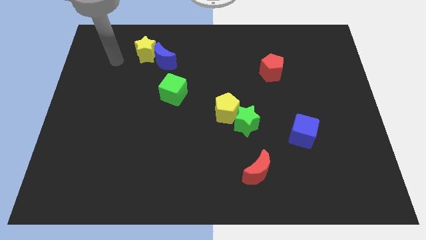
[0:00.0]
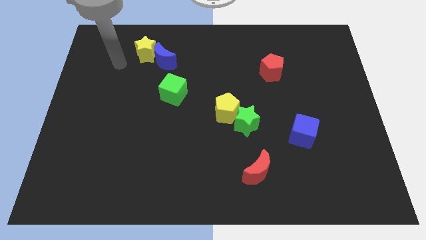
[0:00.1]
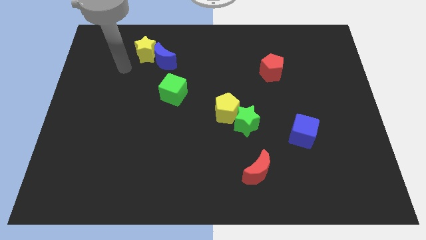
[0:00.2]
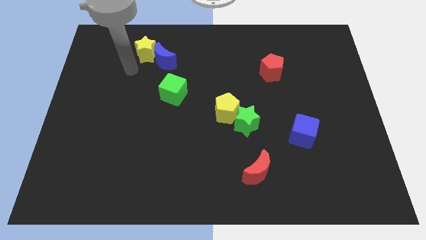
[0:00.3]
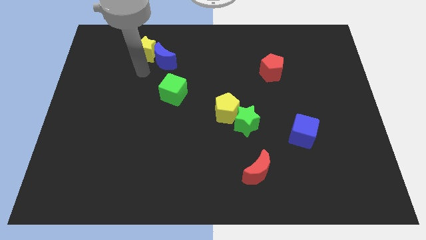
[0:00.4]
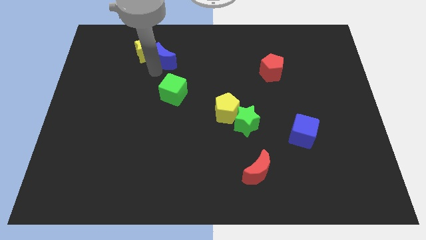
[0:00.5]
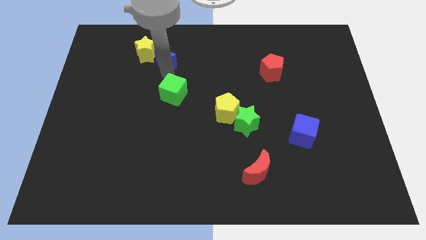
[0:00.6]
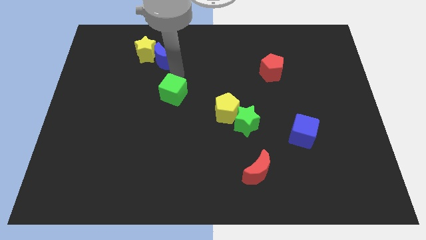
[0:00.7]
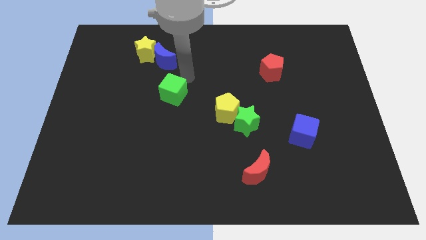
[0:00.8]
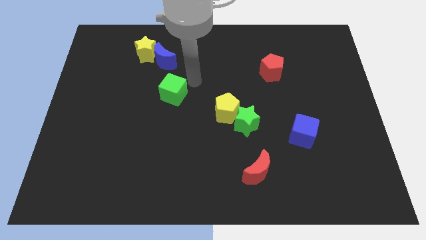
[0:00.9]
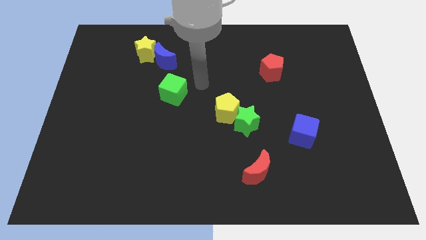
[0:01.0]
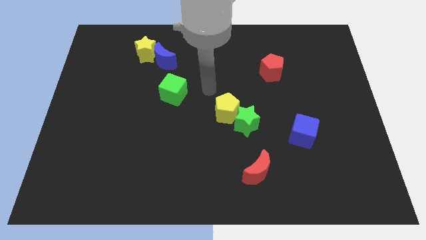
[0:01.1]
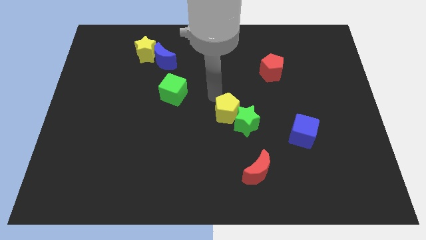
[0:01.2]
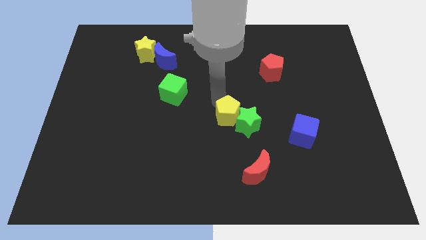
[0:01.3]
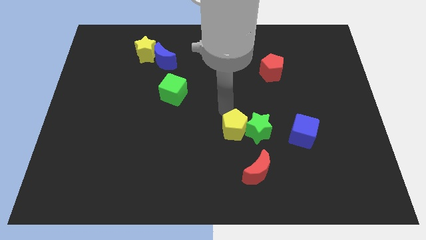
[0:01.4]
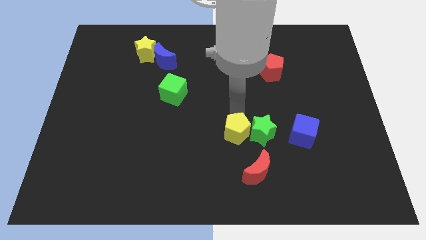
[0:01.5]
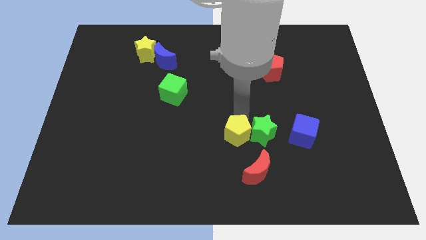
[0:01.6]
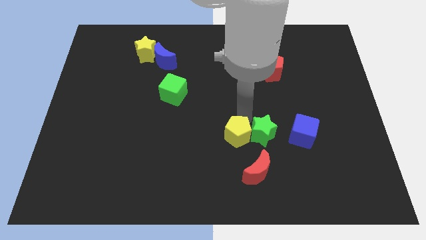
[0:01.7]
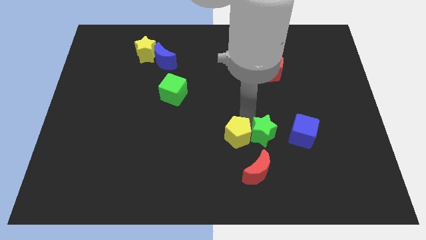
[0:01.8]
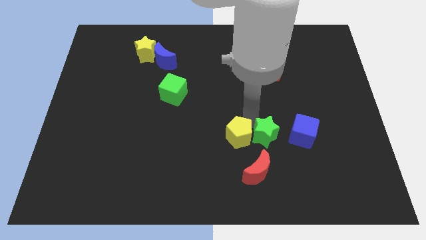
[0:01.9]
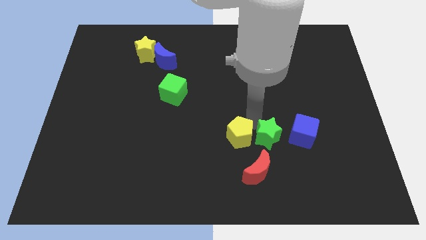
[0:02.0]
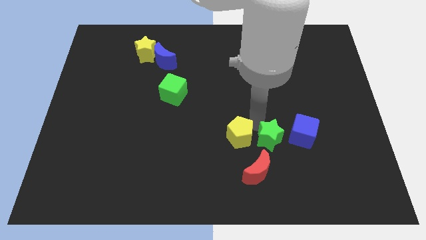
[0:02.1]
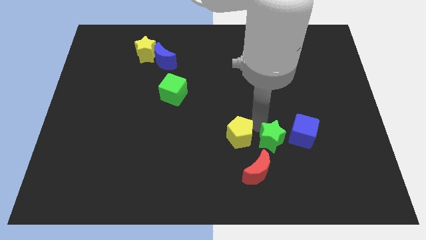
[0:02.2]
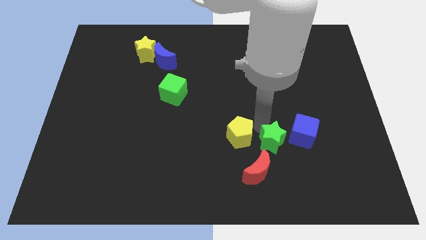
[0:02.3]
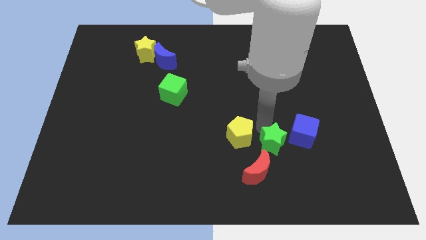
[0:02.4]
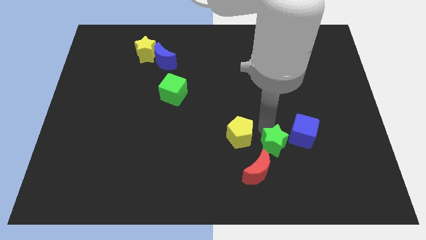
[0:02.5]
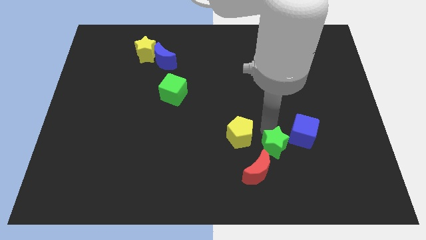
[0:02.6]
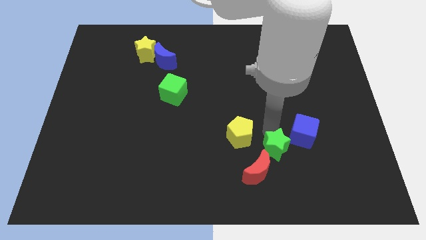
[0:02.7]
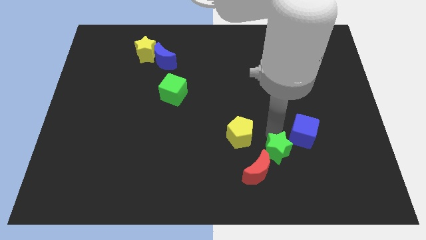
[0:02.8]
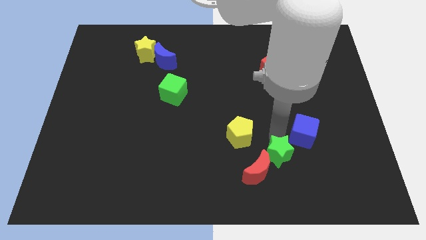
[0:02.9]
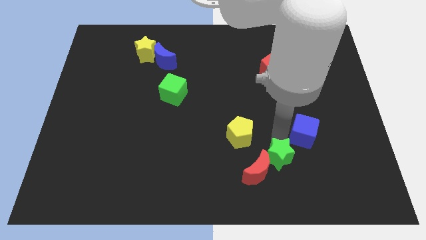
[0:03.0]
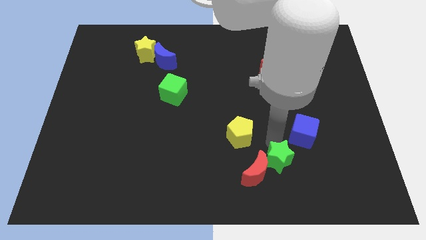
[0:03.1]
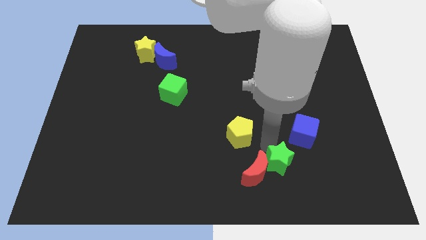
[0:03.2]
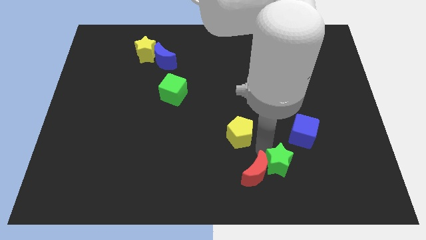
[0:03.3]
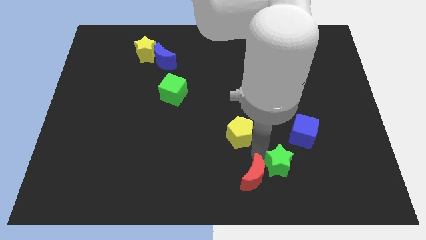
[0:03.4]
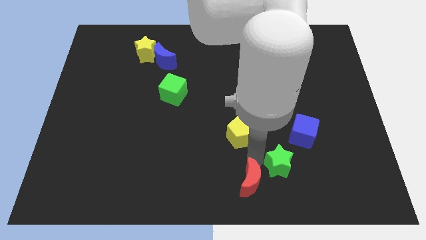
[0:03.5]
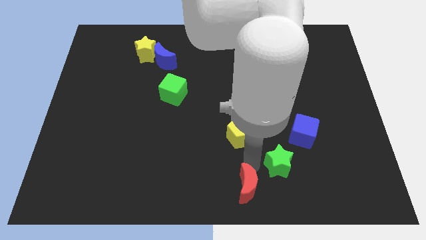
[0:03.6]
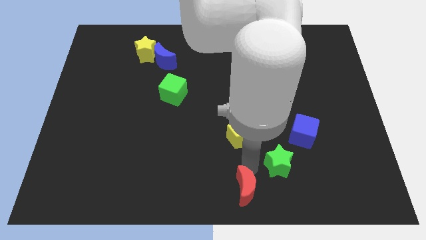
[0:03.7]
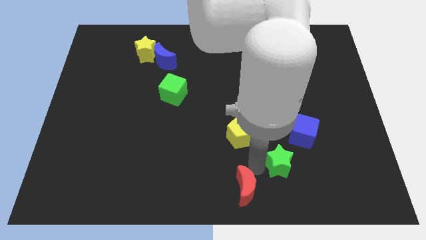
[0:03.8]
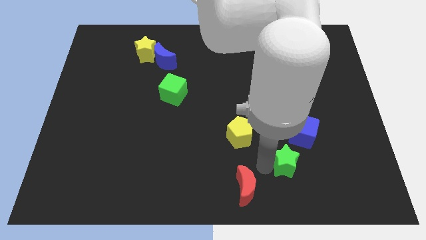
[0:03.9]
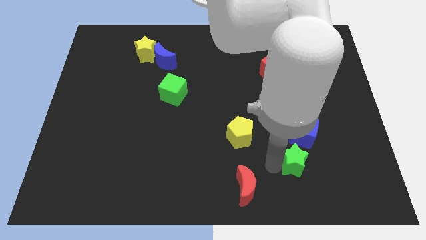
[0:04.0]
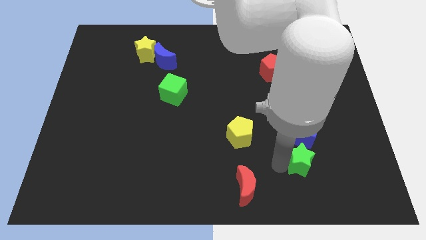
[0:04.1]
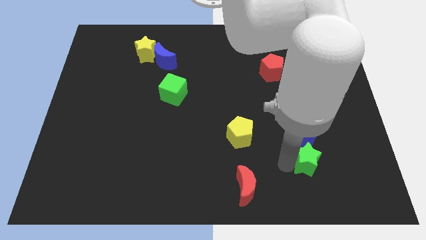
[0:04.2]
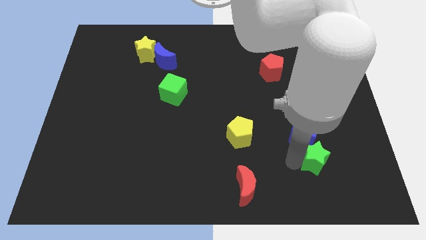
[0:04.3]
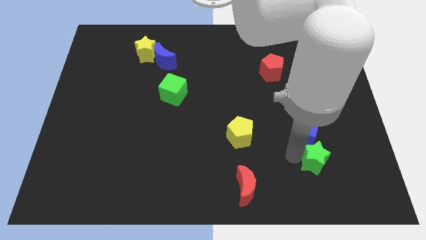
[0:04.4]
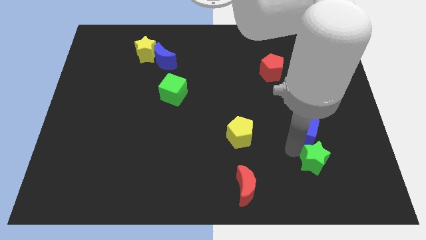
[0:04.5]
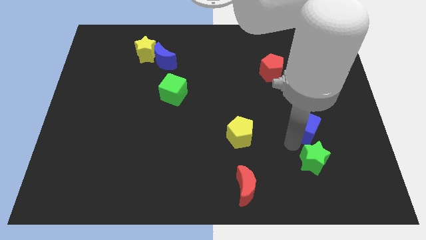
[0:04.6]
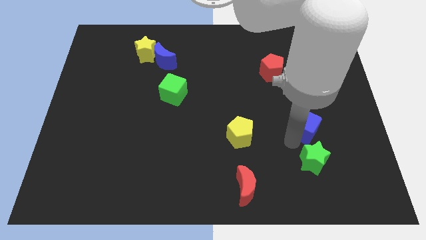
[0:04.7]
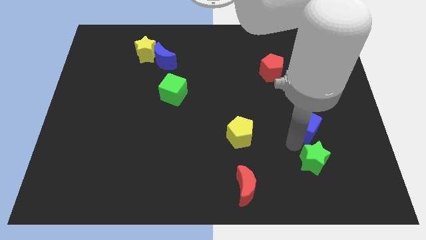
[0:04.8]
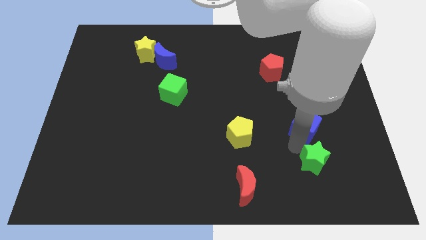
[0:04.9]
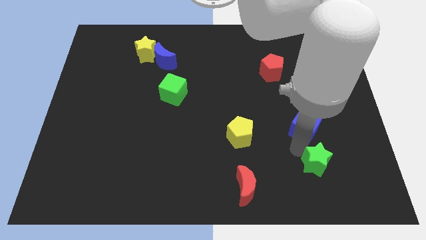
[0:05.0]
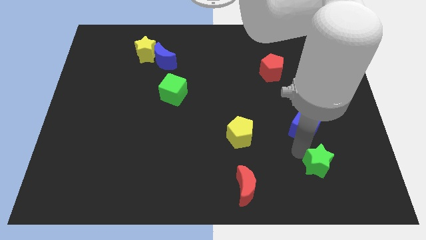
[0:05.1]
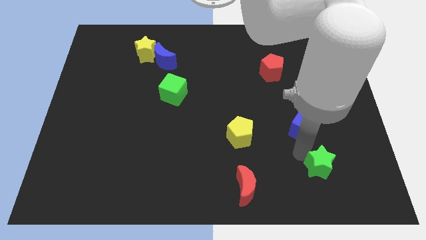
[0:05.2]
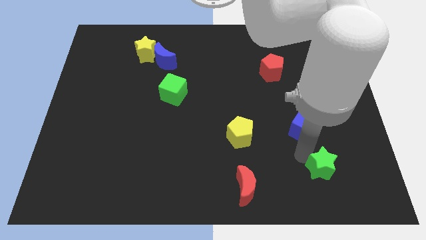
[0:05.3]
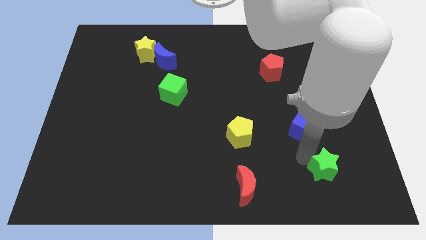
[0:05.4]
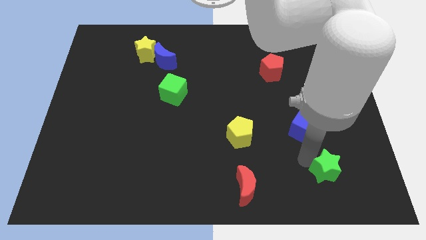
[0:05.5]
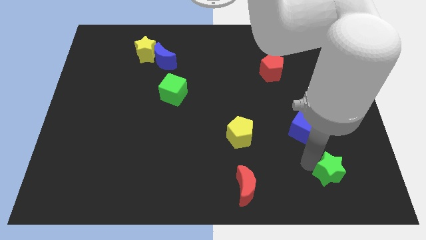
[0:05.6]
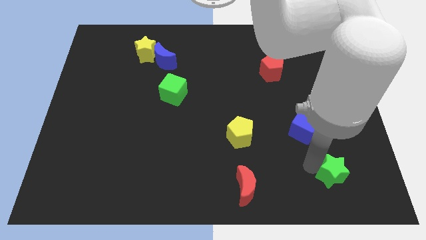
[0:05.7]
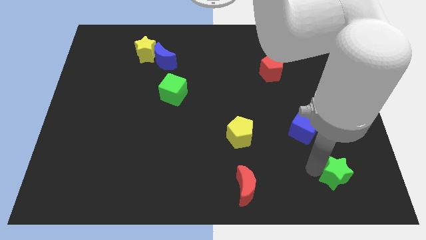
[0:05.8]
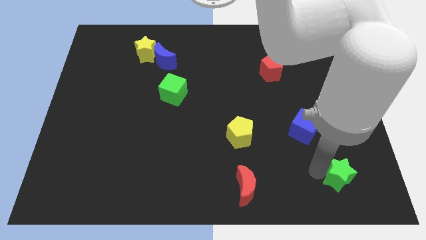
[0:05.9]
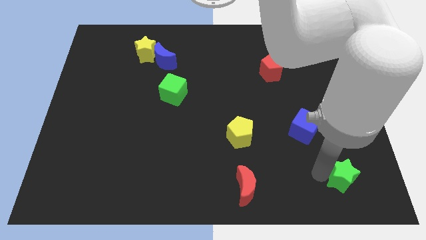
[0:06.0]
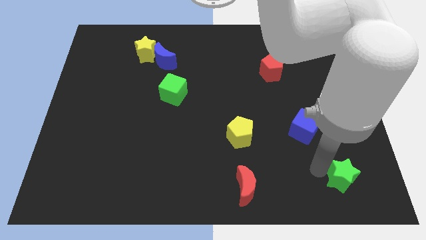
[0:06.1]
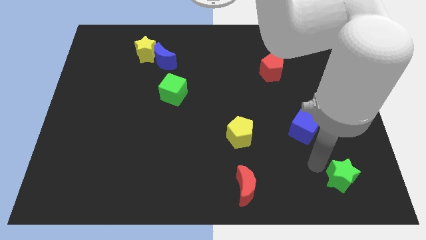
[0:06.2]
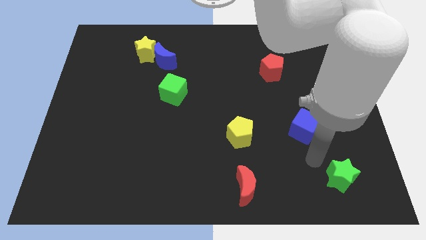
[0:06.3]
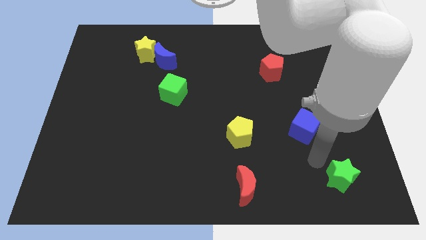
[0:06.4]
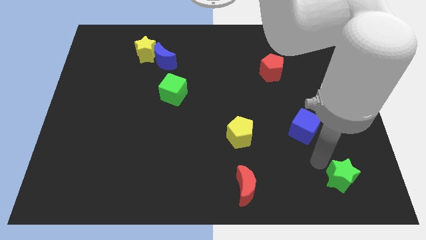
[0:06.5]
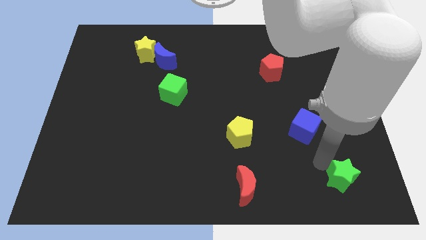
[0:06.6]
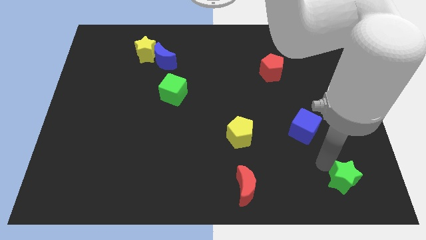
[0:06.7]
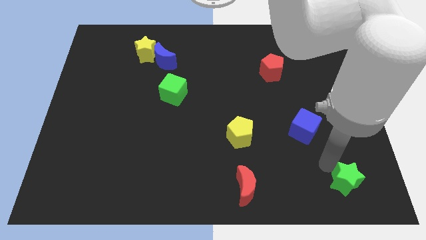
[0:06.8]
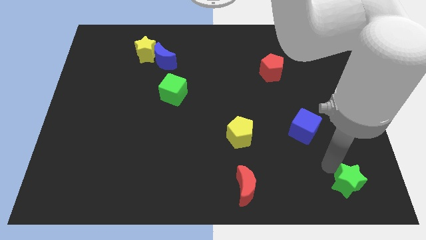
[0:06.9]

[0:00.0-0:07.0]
push the green star to the bottom right corner
